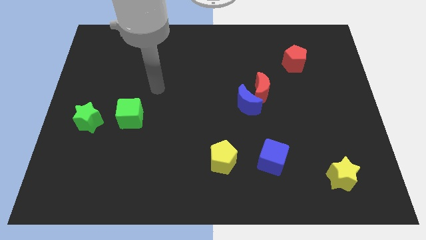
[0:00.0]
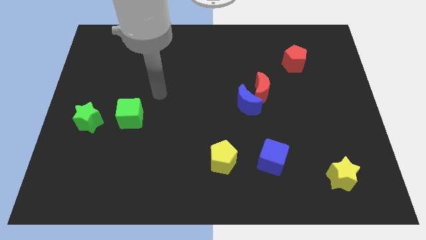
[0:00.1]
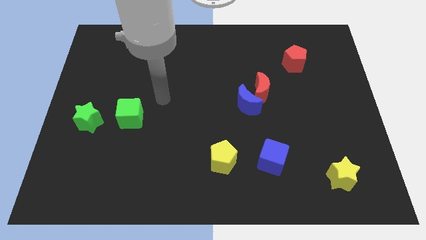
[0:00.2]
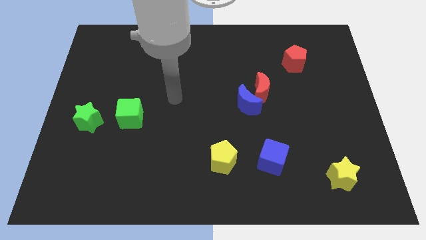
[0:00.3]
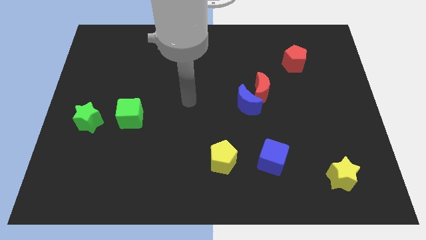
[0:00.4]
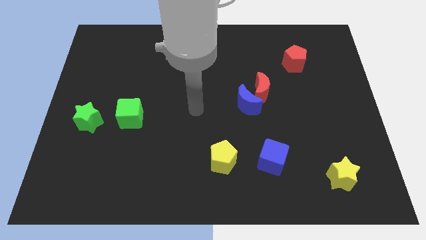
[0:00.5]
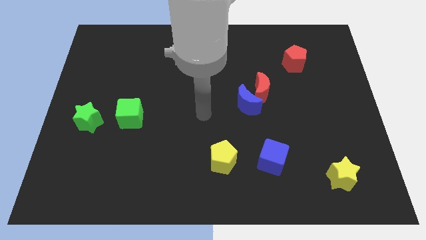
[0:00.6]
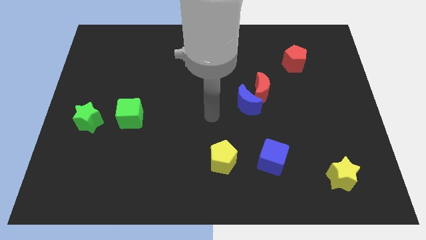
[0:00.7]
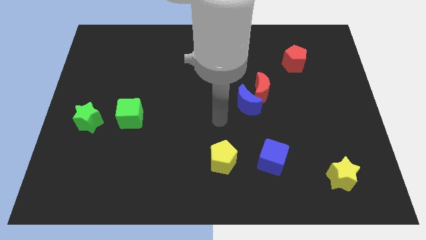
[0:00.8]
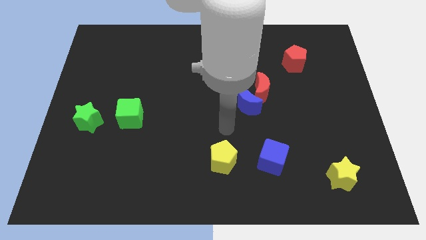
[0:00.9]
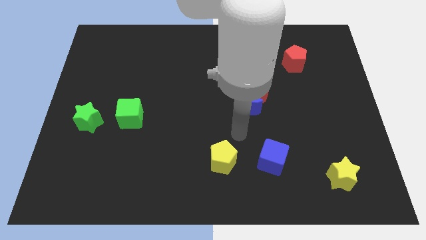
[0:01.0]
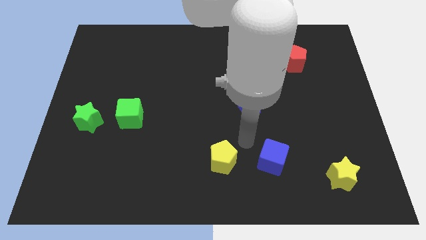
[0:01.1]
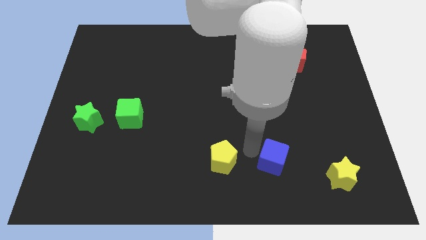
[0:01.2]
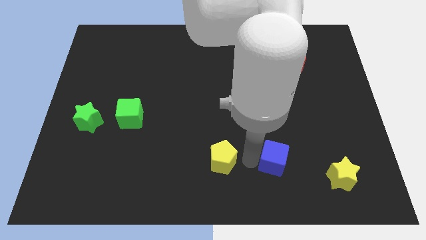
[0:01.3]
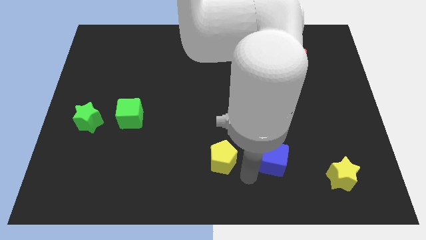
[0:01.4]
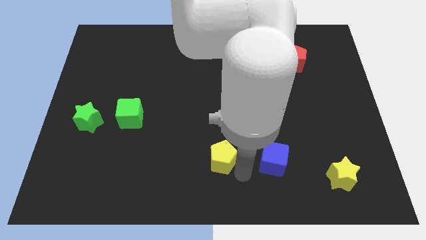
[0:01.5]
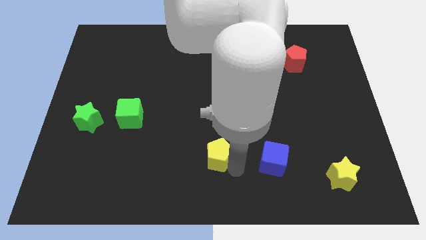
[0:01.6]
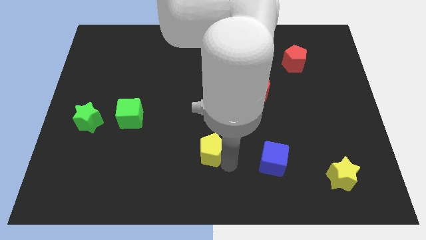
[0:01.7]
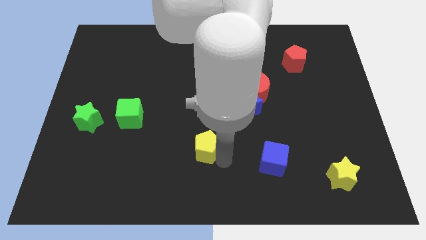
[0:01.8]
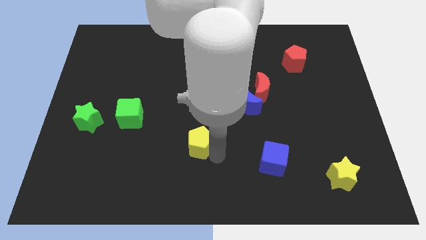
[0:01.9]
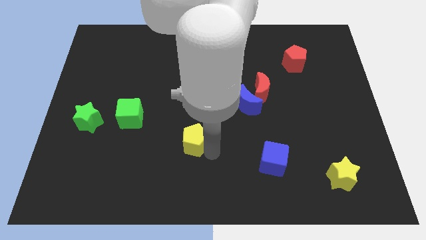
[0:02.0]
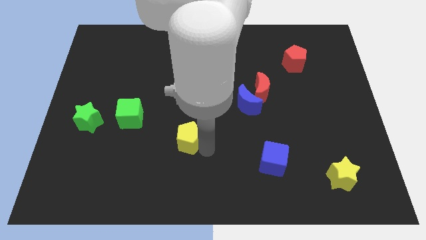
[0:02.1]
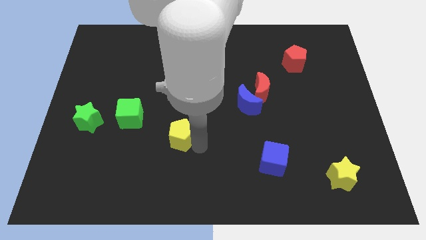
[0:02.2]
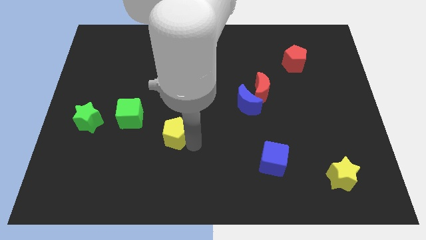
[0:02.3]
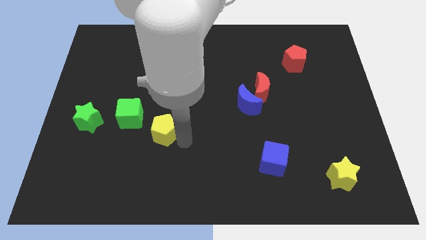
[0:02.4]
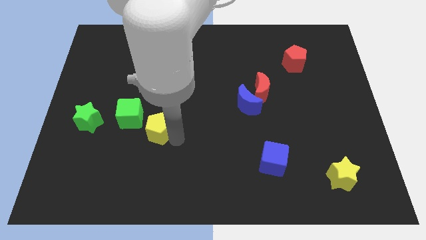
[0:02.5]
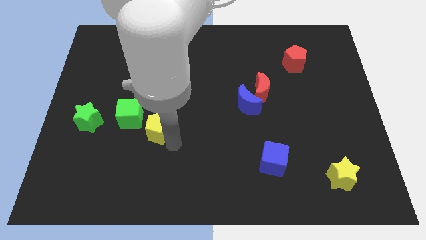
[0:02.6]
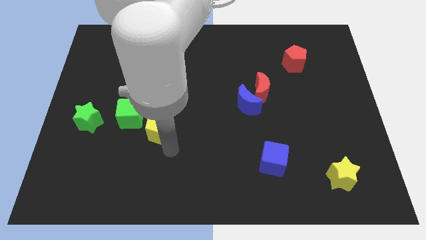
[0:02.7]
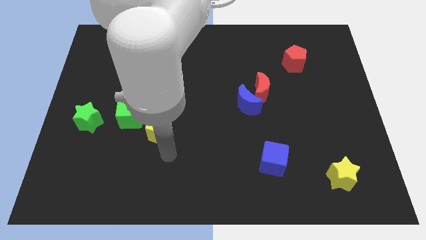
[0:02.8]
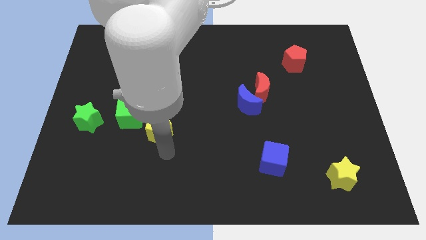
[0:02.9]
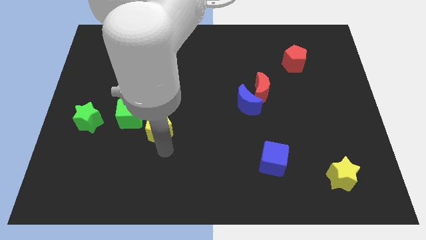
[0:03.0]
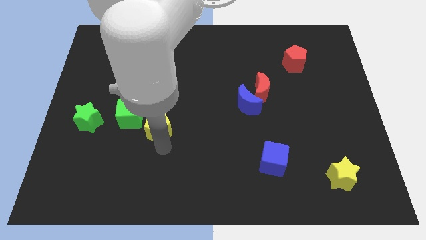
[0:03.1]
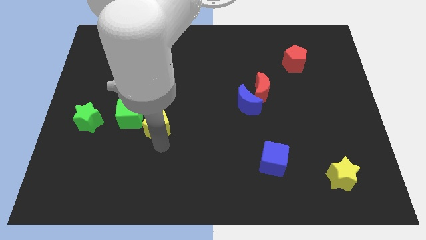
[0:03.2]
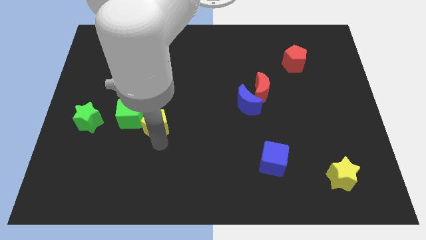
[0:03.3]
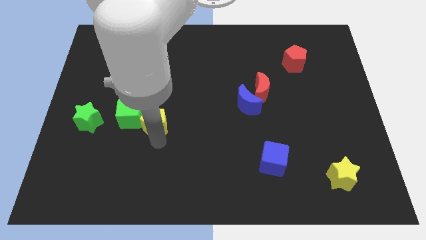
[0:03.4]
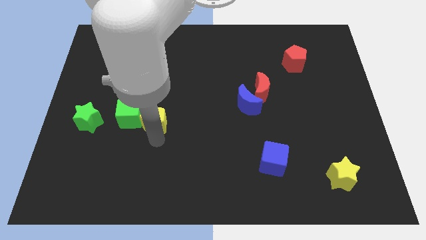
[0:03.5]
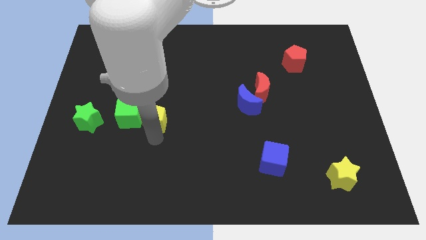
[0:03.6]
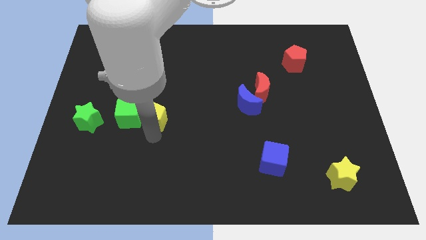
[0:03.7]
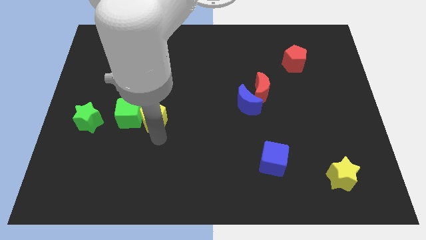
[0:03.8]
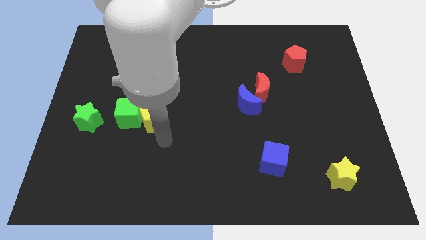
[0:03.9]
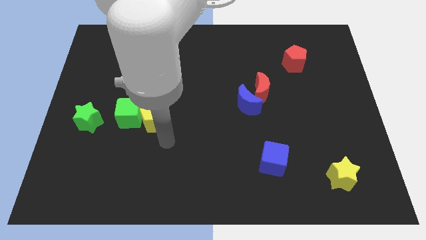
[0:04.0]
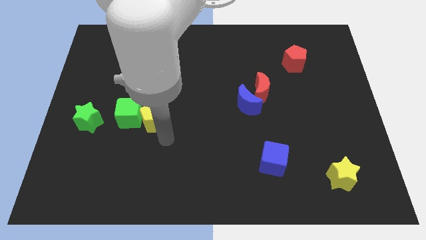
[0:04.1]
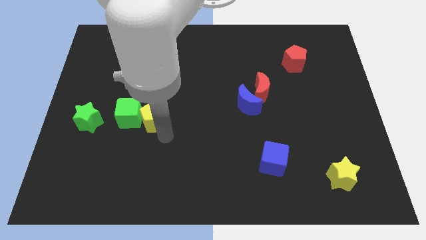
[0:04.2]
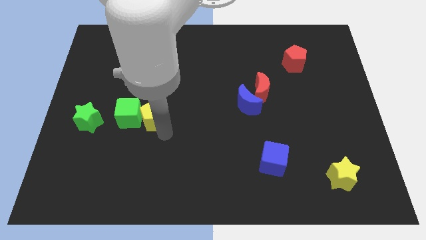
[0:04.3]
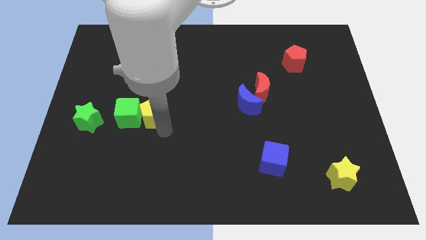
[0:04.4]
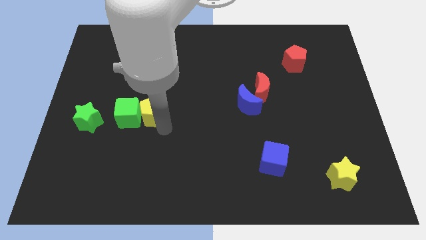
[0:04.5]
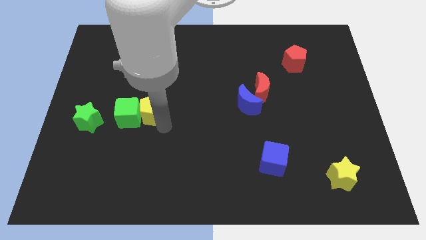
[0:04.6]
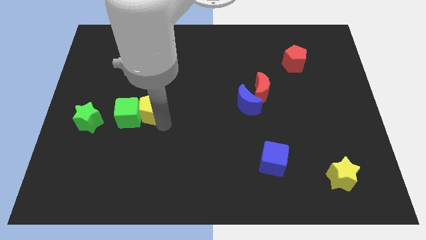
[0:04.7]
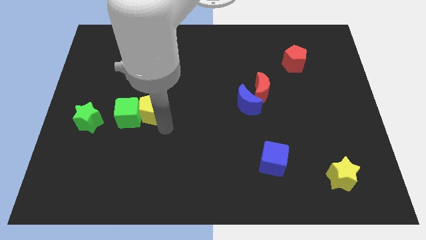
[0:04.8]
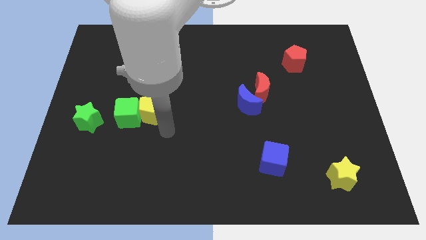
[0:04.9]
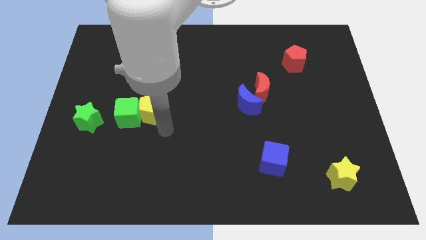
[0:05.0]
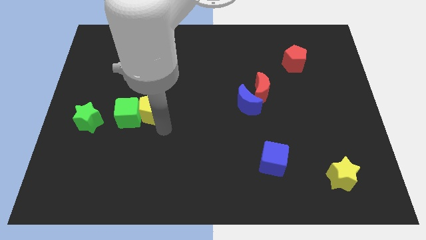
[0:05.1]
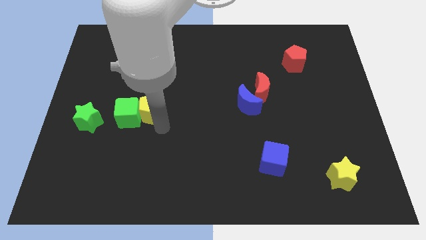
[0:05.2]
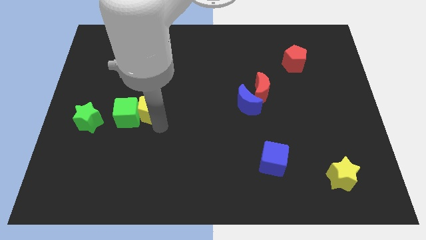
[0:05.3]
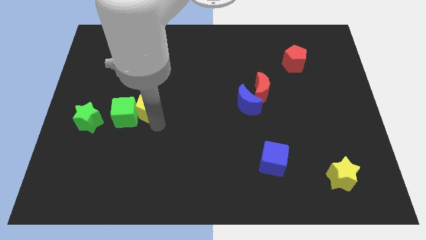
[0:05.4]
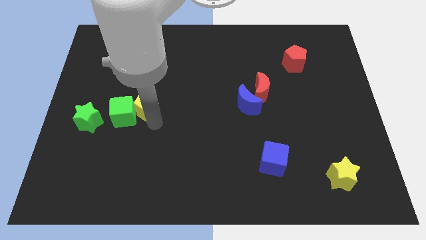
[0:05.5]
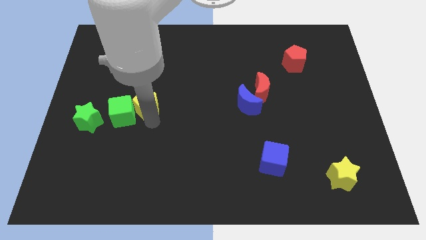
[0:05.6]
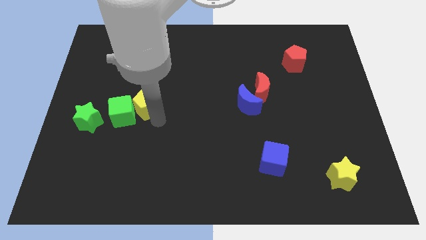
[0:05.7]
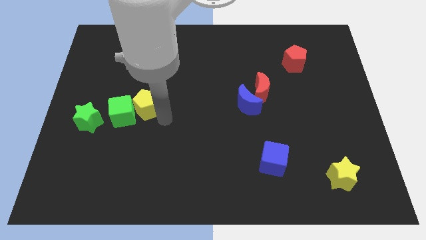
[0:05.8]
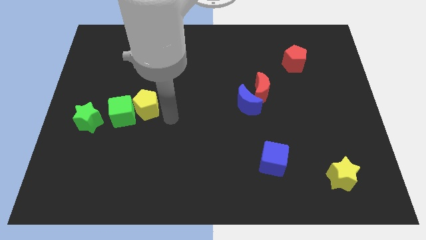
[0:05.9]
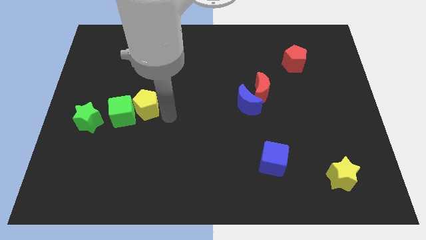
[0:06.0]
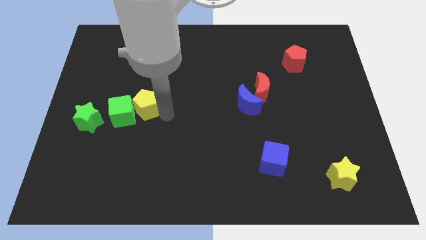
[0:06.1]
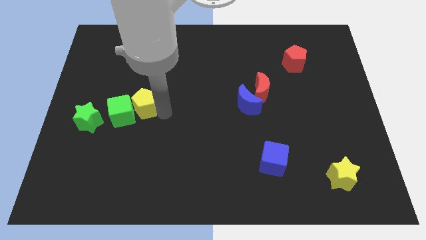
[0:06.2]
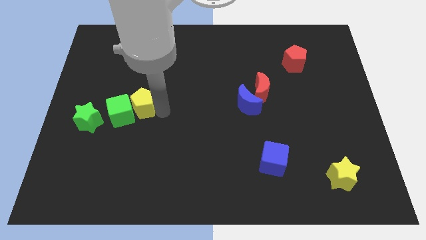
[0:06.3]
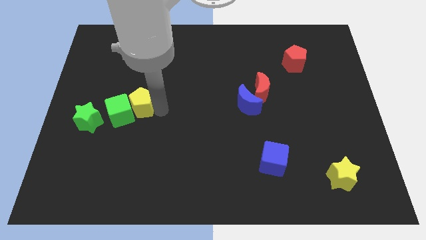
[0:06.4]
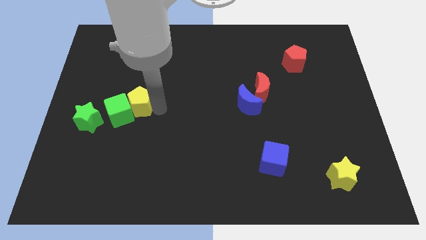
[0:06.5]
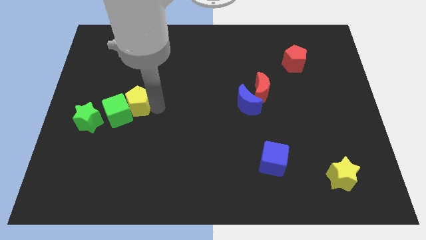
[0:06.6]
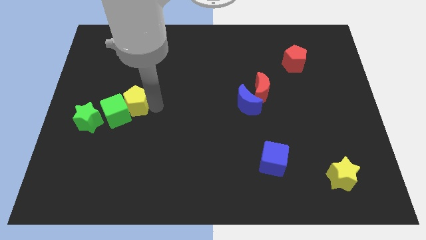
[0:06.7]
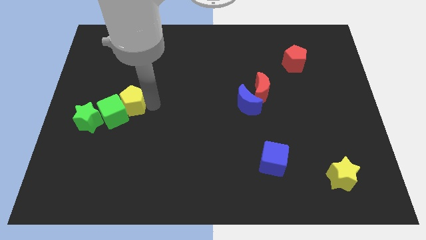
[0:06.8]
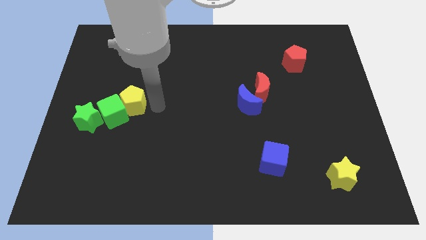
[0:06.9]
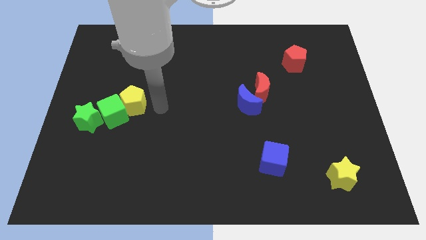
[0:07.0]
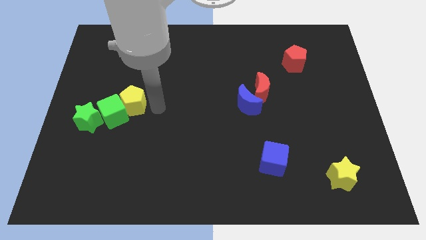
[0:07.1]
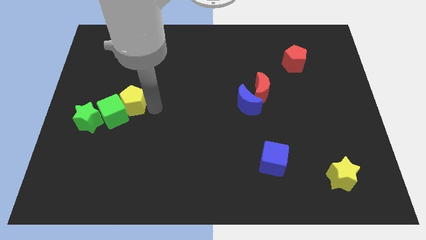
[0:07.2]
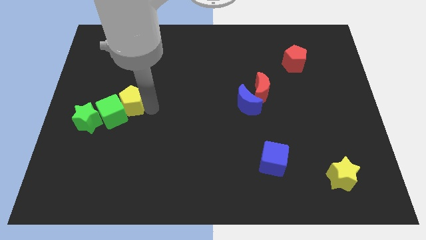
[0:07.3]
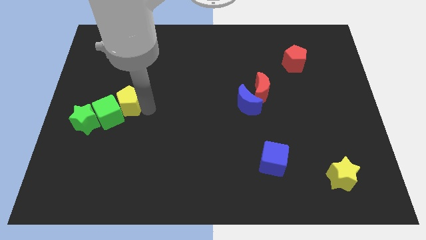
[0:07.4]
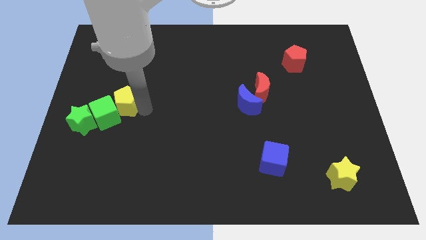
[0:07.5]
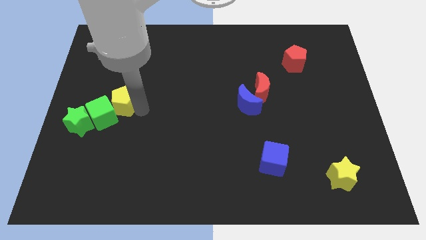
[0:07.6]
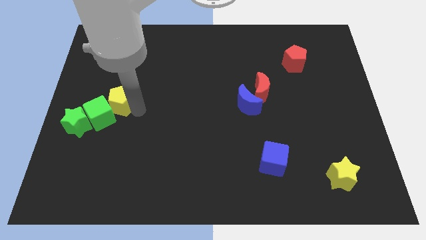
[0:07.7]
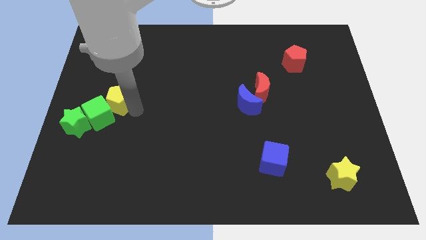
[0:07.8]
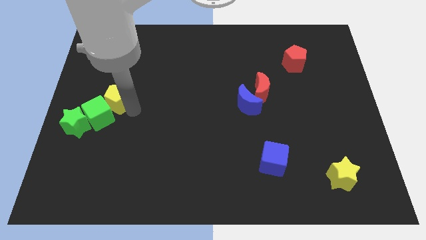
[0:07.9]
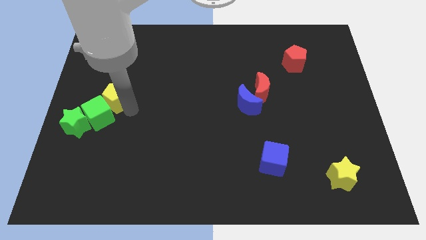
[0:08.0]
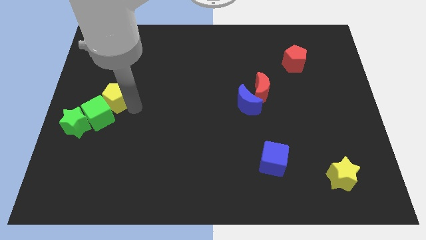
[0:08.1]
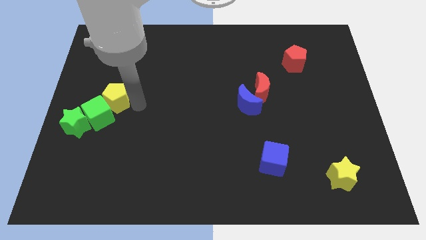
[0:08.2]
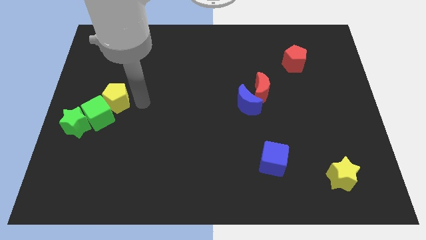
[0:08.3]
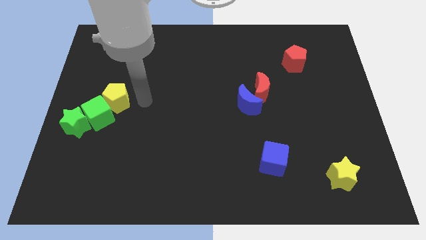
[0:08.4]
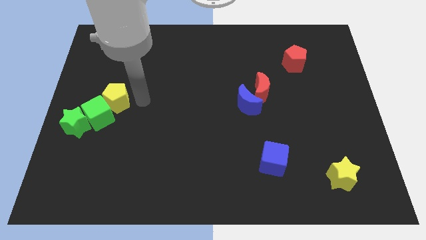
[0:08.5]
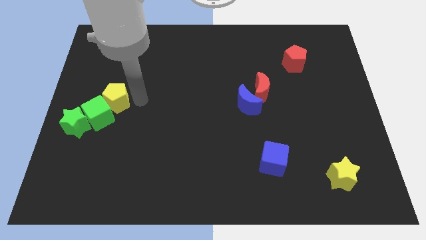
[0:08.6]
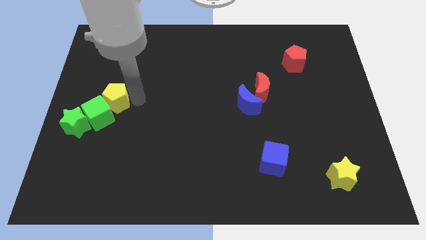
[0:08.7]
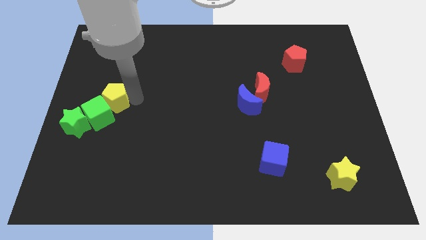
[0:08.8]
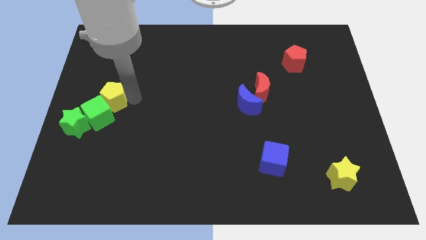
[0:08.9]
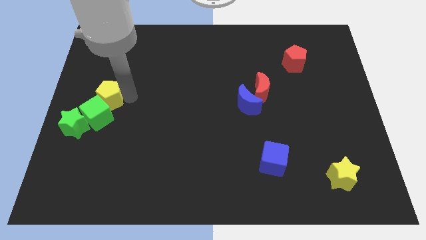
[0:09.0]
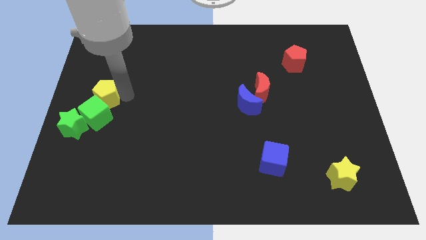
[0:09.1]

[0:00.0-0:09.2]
move the yellow pentagon to the left side
